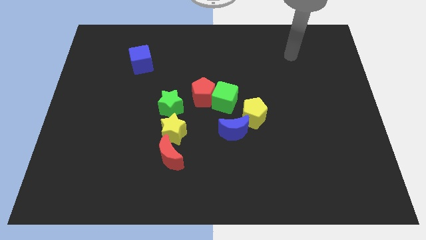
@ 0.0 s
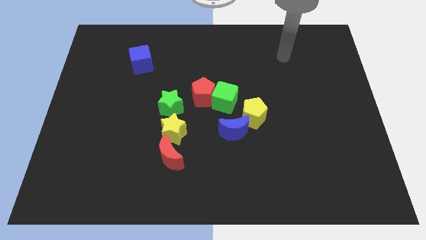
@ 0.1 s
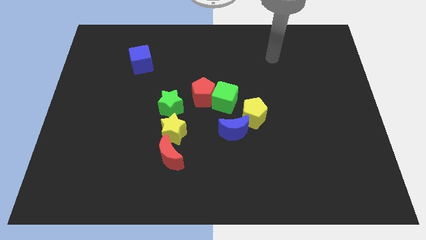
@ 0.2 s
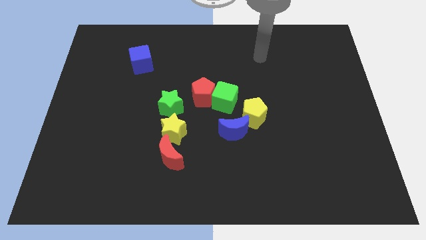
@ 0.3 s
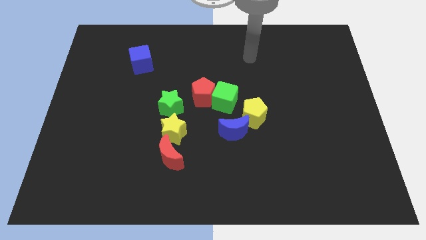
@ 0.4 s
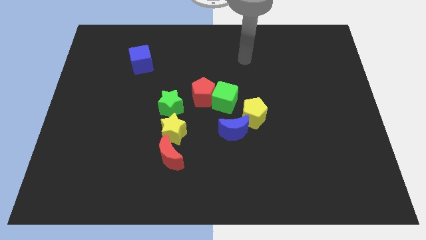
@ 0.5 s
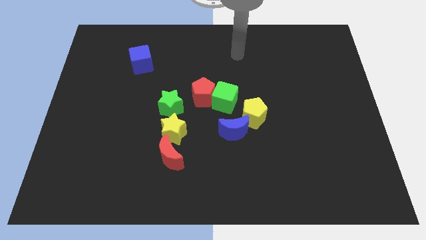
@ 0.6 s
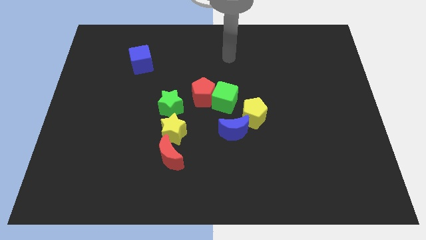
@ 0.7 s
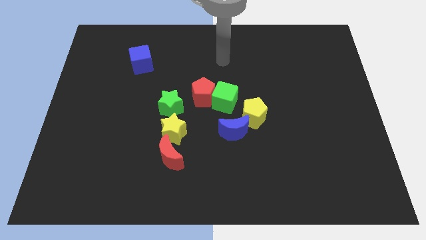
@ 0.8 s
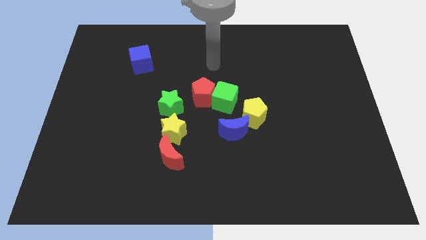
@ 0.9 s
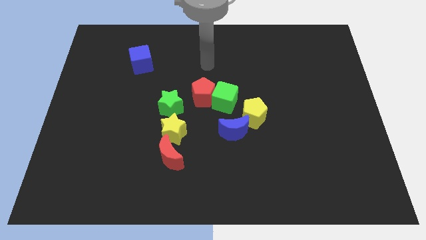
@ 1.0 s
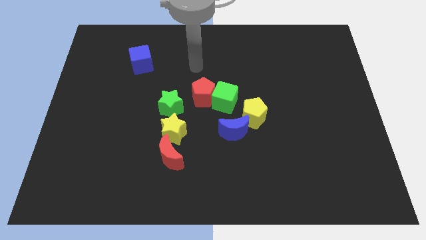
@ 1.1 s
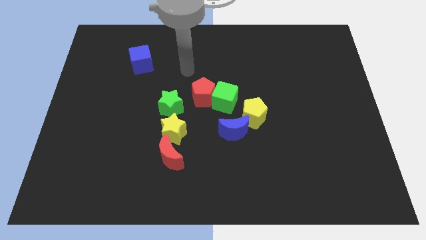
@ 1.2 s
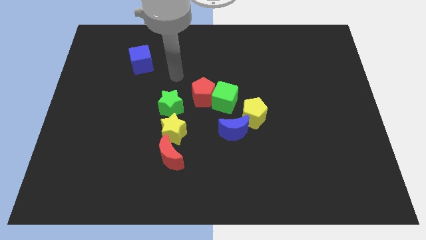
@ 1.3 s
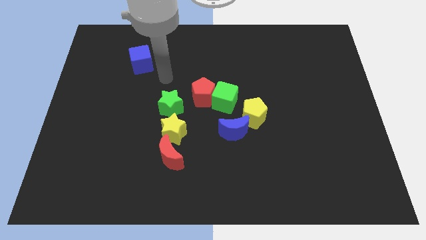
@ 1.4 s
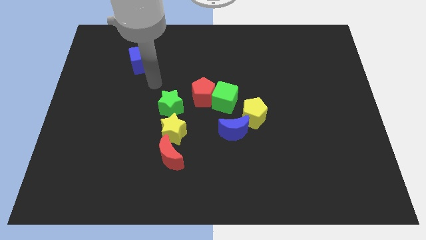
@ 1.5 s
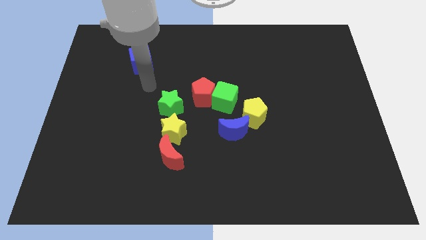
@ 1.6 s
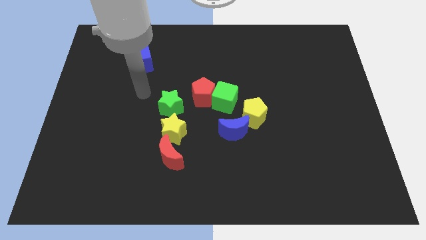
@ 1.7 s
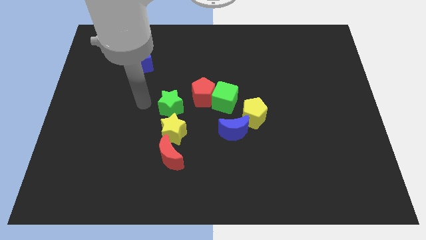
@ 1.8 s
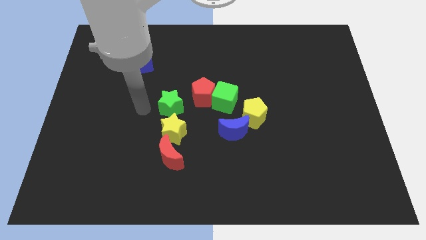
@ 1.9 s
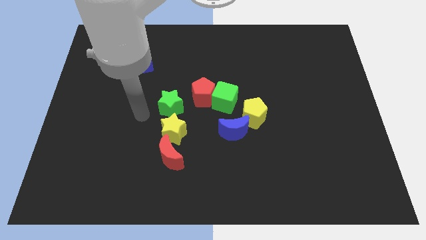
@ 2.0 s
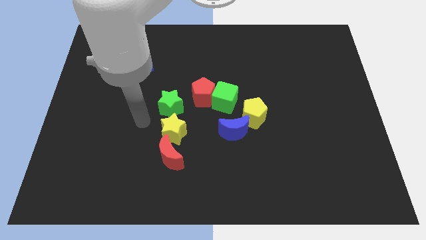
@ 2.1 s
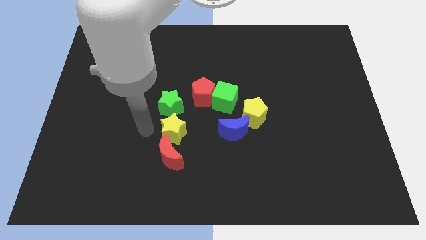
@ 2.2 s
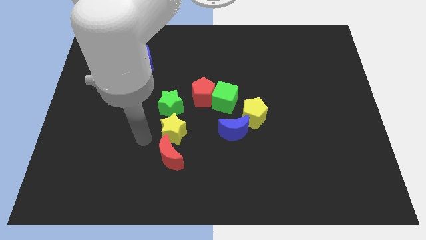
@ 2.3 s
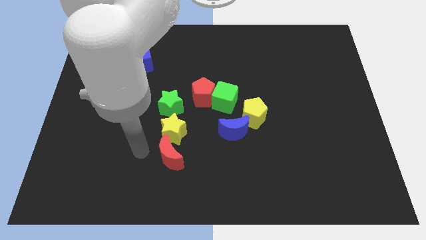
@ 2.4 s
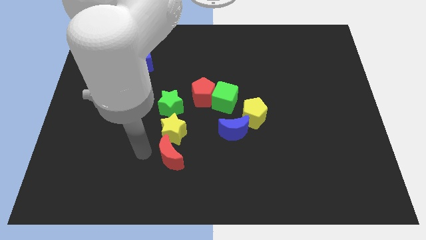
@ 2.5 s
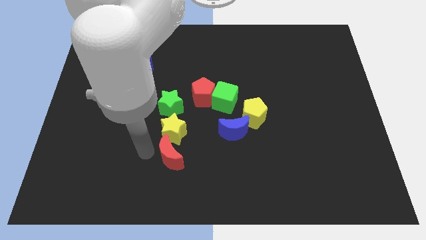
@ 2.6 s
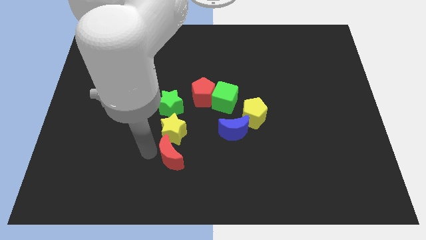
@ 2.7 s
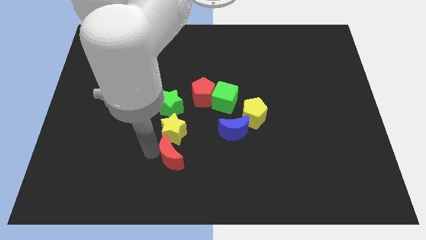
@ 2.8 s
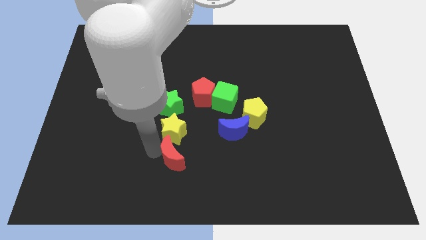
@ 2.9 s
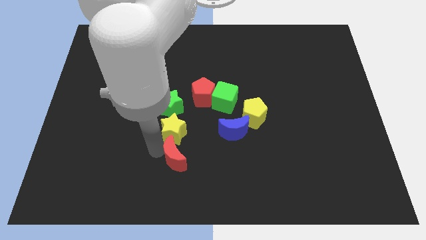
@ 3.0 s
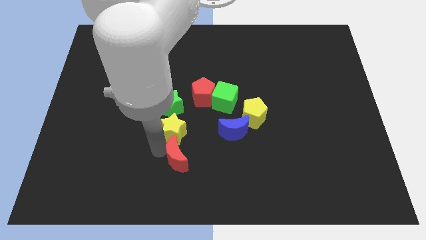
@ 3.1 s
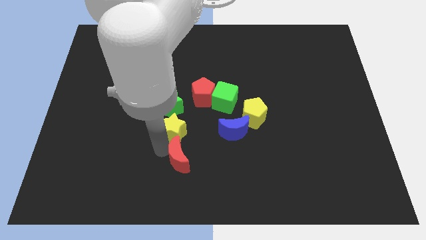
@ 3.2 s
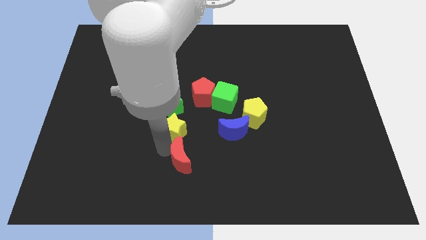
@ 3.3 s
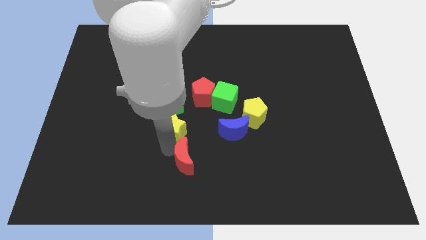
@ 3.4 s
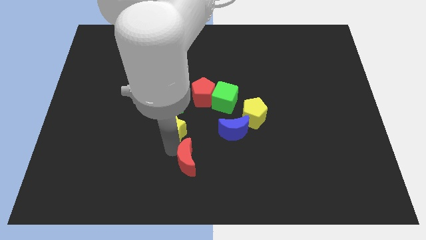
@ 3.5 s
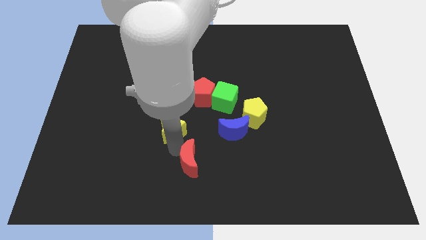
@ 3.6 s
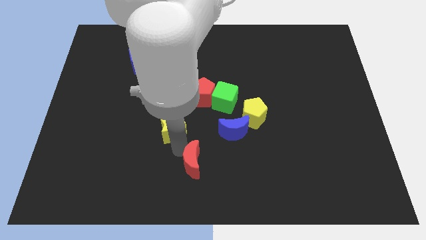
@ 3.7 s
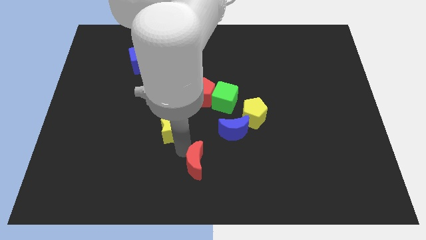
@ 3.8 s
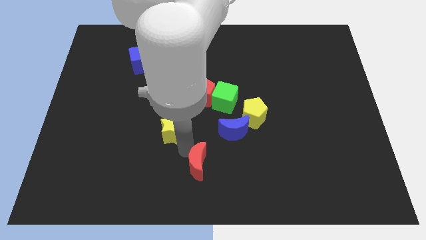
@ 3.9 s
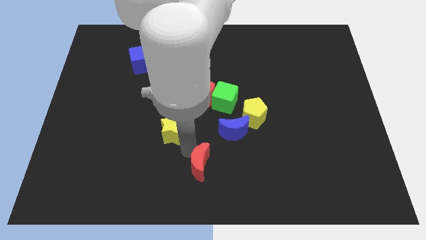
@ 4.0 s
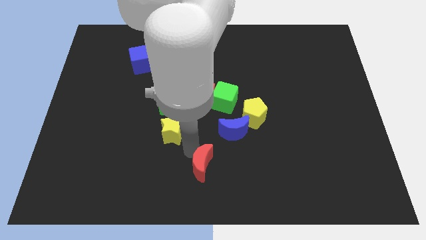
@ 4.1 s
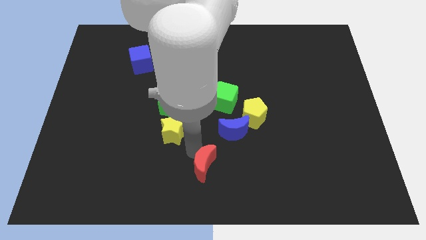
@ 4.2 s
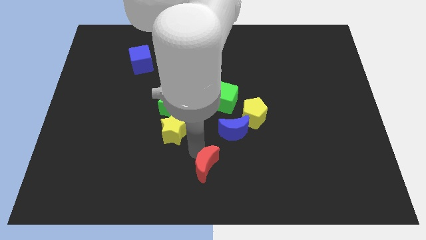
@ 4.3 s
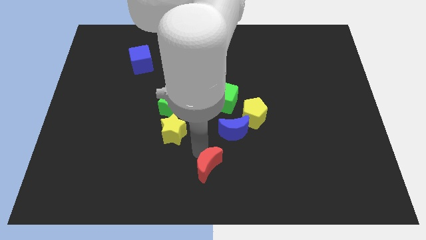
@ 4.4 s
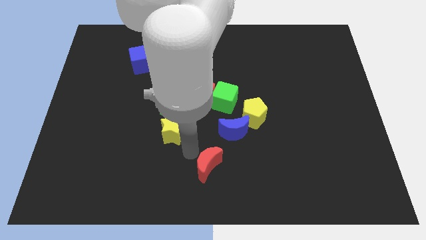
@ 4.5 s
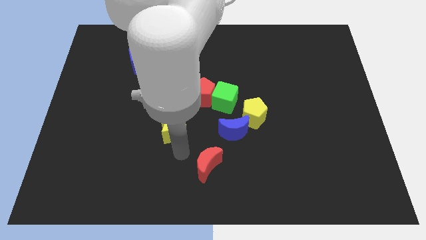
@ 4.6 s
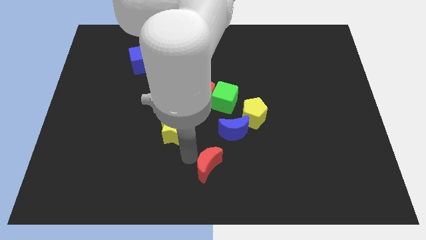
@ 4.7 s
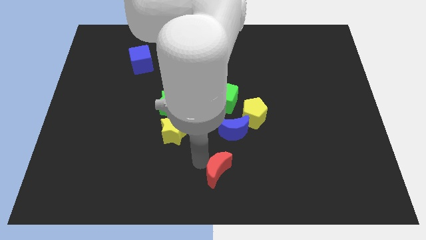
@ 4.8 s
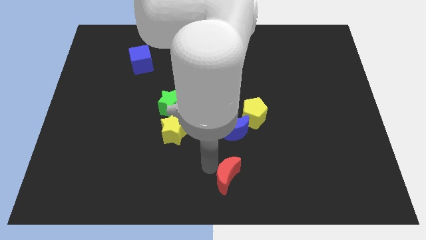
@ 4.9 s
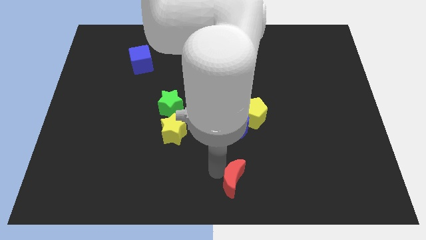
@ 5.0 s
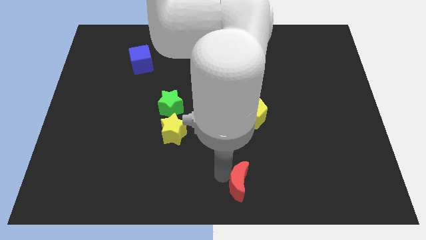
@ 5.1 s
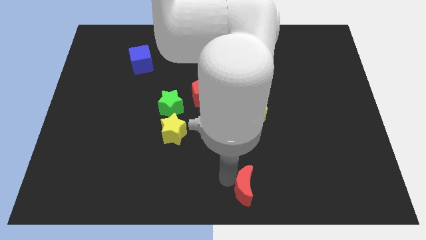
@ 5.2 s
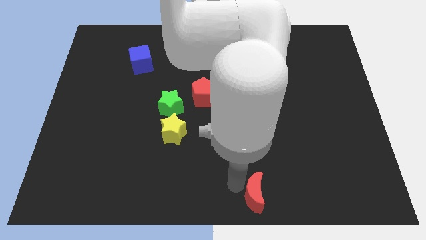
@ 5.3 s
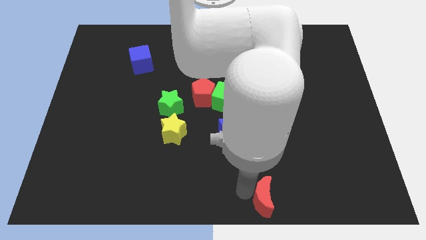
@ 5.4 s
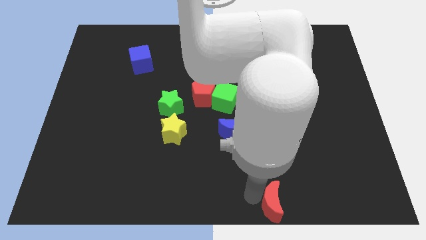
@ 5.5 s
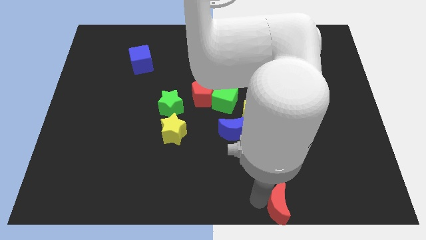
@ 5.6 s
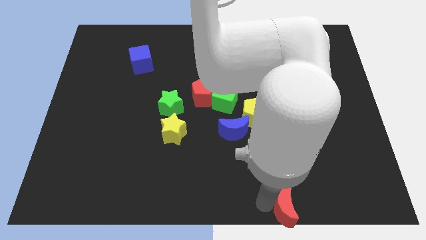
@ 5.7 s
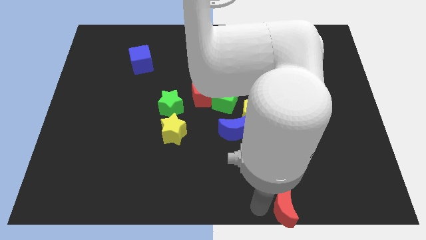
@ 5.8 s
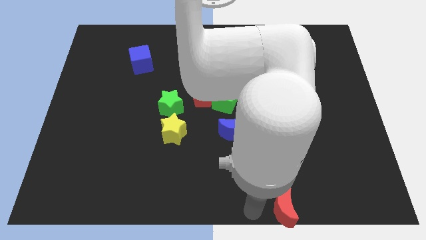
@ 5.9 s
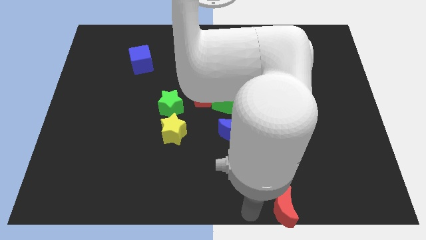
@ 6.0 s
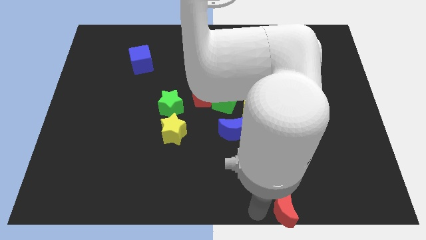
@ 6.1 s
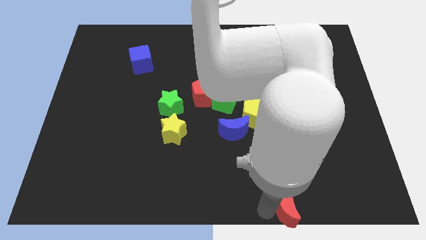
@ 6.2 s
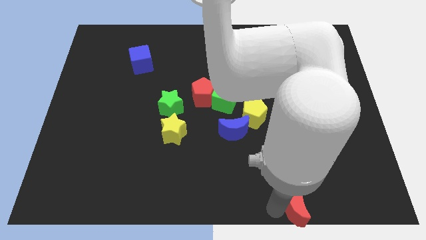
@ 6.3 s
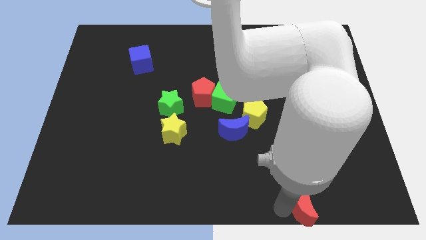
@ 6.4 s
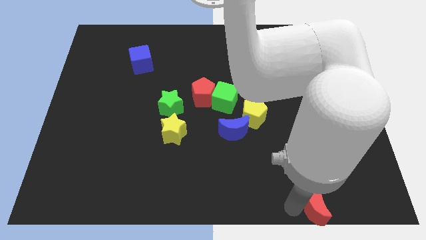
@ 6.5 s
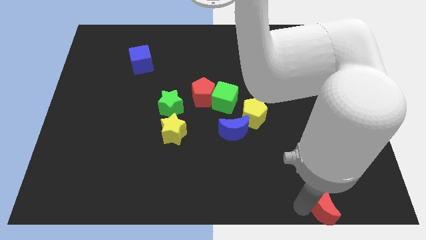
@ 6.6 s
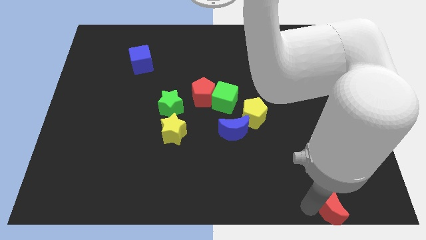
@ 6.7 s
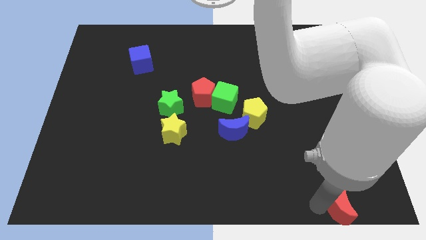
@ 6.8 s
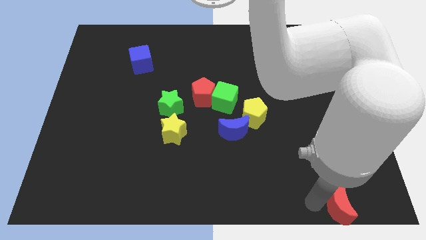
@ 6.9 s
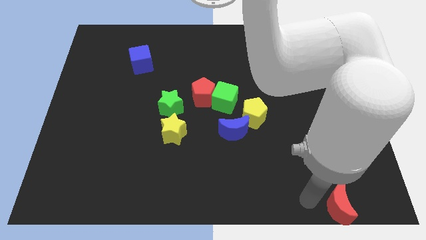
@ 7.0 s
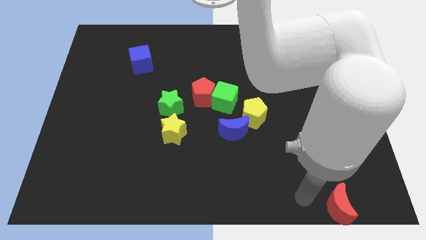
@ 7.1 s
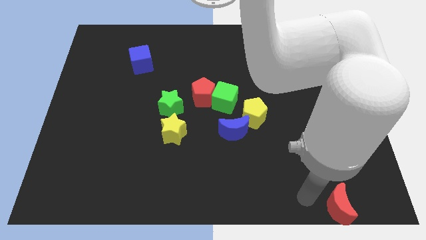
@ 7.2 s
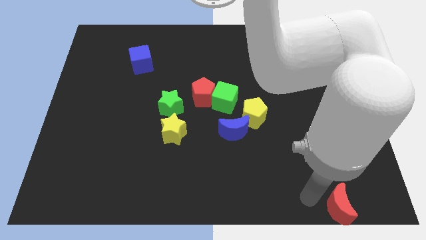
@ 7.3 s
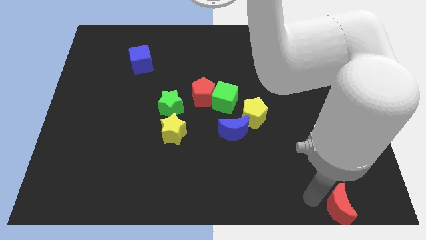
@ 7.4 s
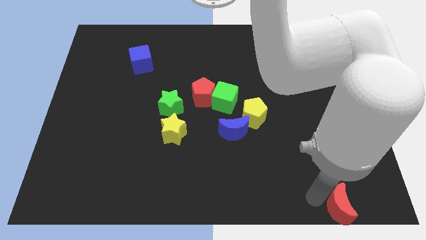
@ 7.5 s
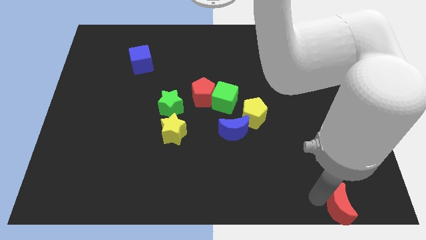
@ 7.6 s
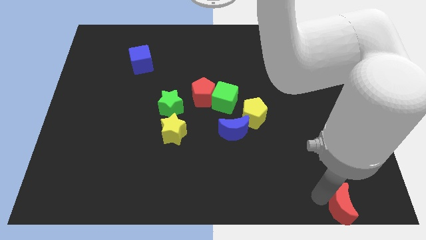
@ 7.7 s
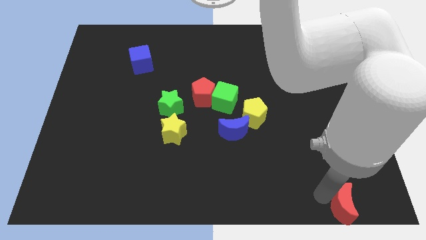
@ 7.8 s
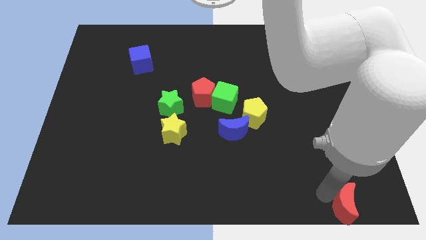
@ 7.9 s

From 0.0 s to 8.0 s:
put the red moon to the bottom right
